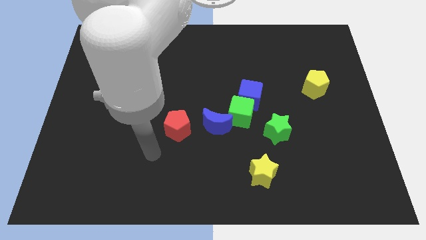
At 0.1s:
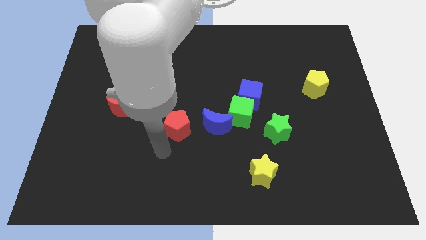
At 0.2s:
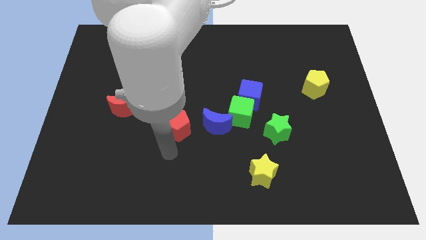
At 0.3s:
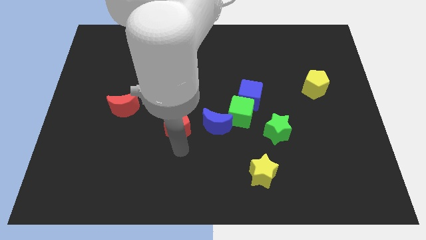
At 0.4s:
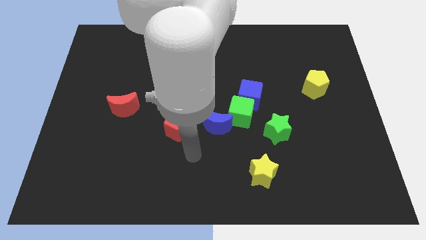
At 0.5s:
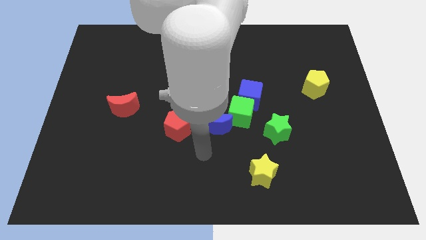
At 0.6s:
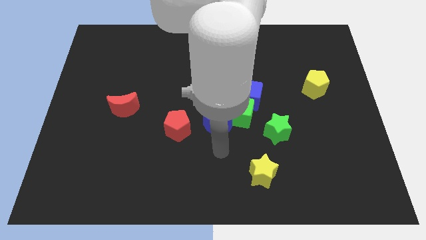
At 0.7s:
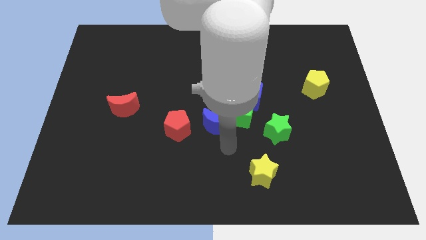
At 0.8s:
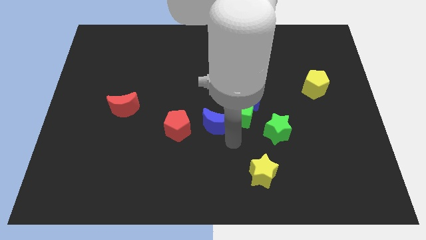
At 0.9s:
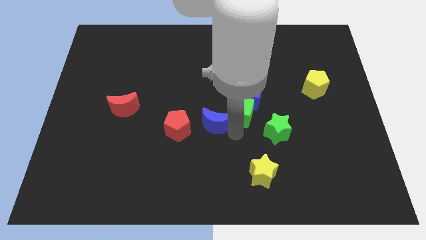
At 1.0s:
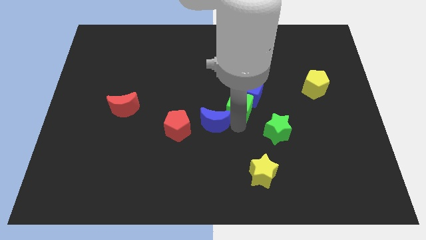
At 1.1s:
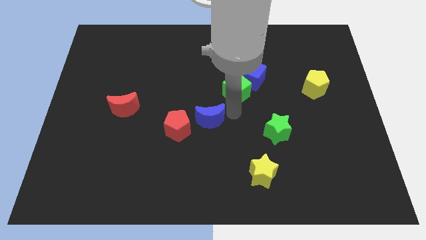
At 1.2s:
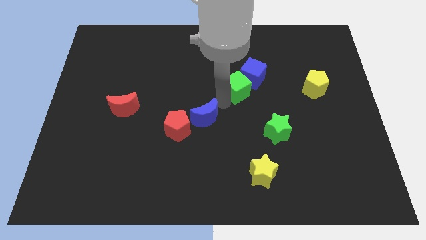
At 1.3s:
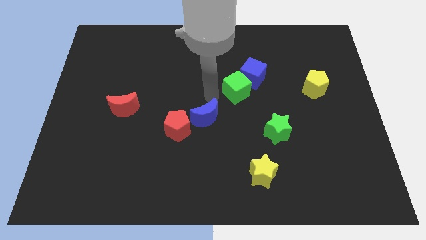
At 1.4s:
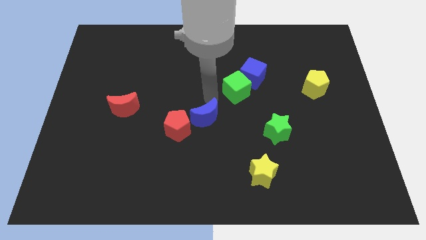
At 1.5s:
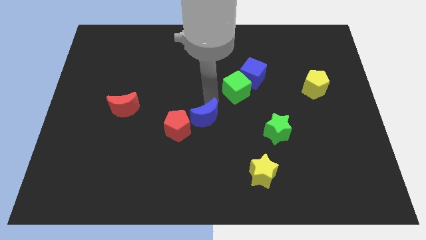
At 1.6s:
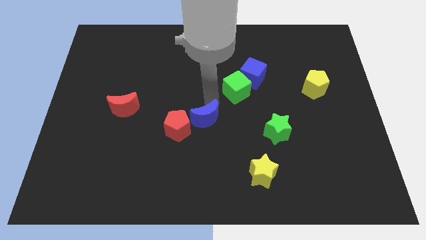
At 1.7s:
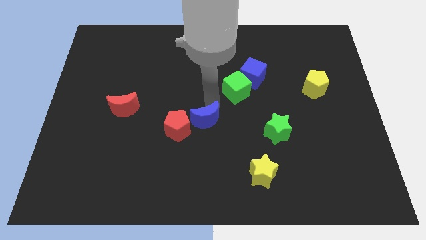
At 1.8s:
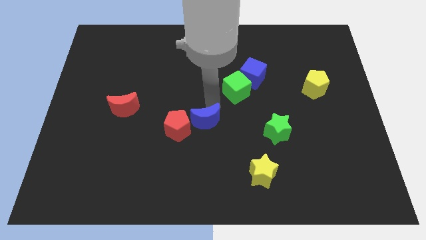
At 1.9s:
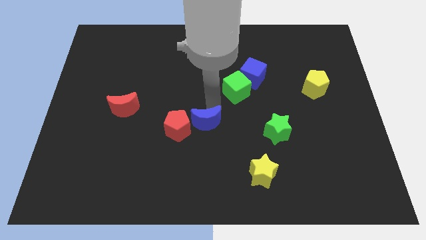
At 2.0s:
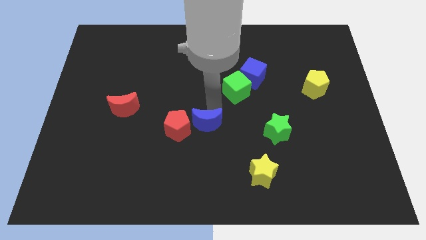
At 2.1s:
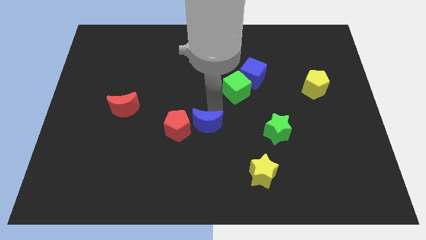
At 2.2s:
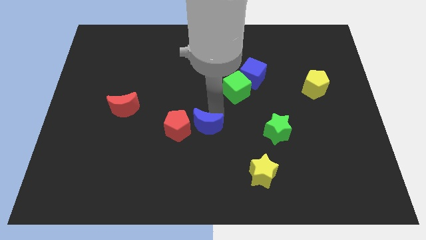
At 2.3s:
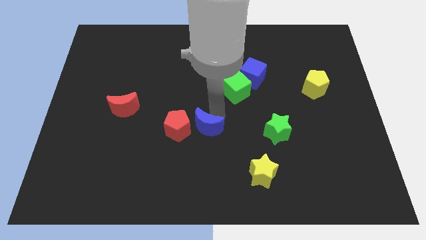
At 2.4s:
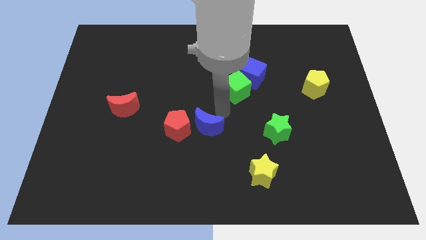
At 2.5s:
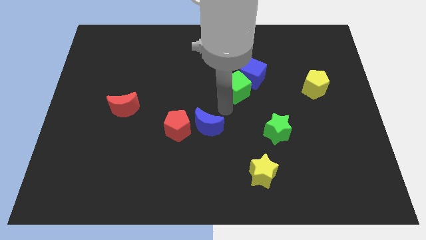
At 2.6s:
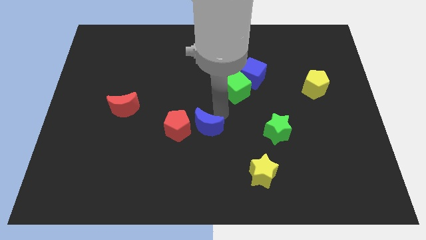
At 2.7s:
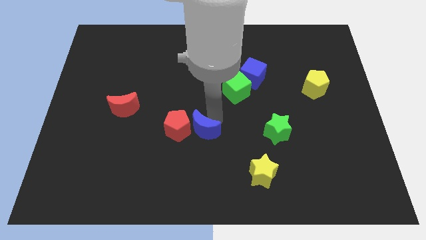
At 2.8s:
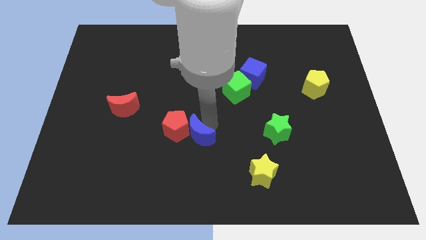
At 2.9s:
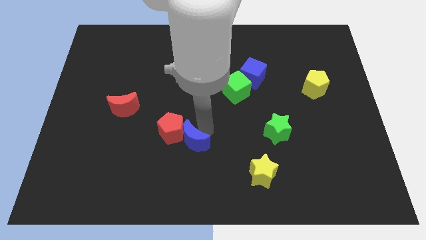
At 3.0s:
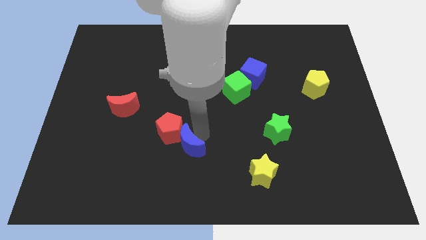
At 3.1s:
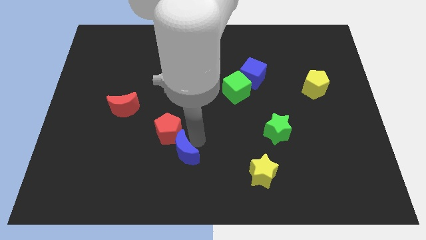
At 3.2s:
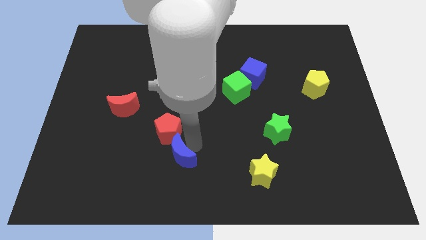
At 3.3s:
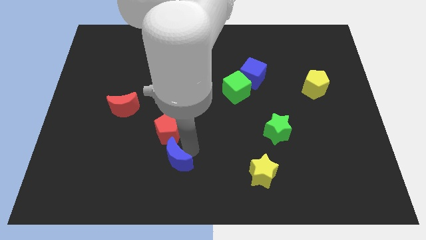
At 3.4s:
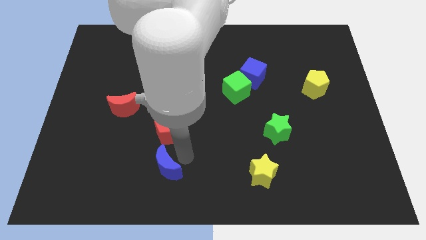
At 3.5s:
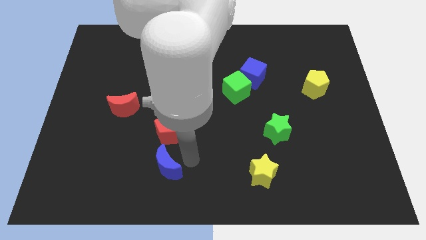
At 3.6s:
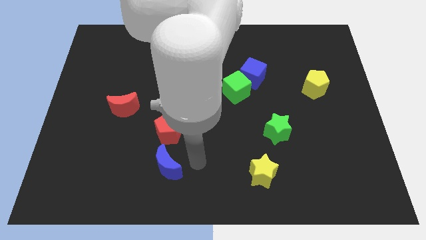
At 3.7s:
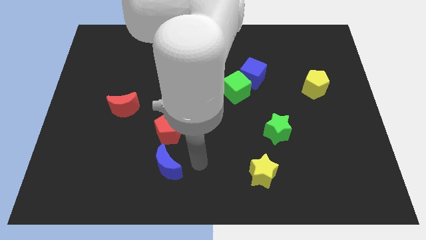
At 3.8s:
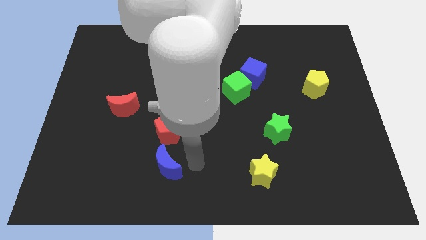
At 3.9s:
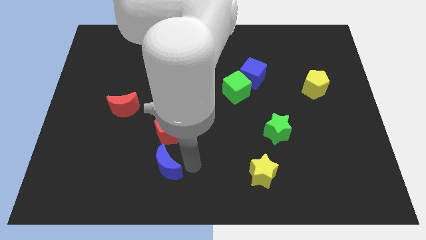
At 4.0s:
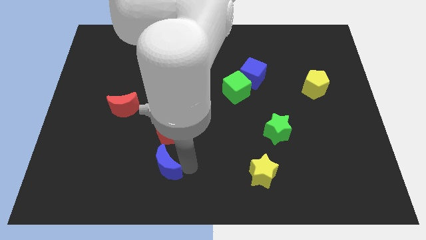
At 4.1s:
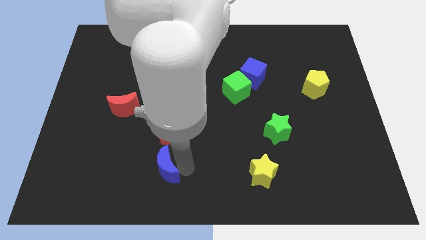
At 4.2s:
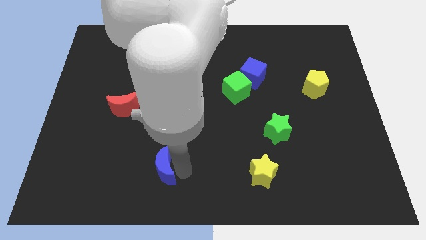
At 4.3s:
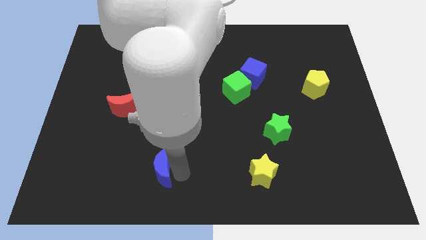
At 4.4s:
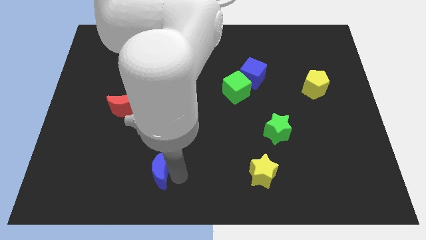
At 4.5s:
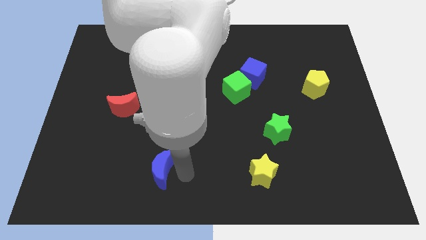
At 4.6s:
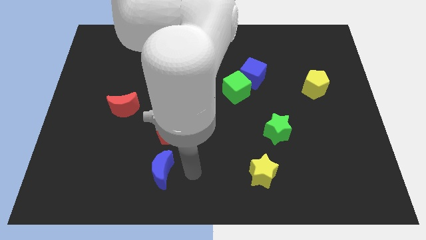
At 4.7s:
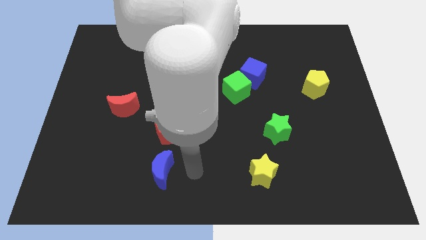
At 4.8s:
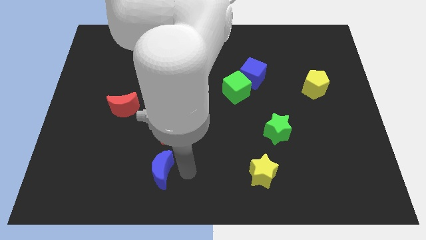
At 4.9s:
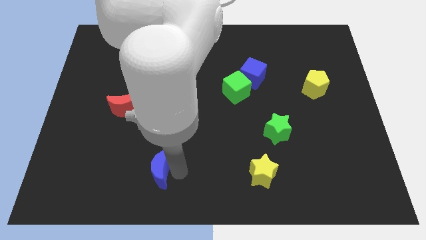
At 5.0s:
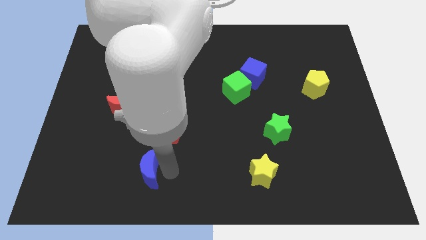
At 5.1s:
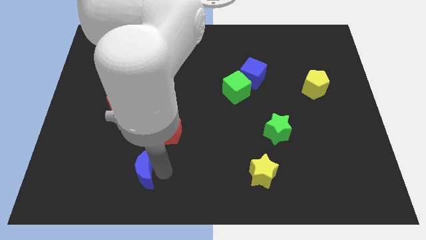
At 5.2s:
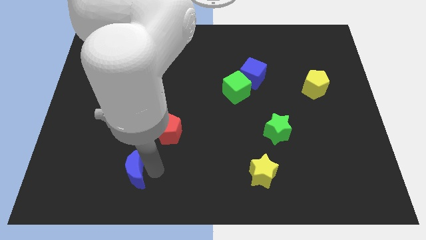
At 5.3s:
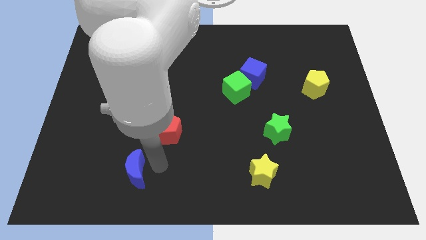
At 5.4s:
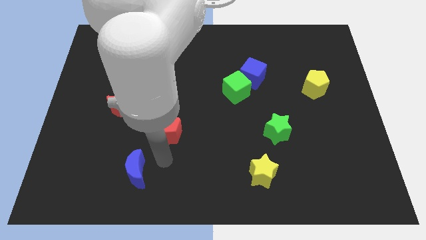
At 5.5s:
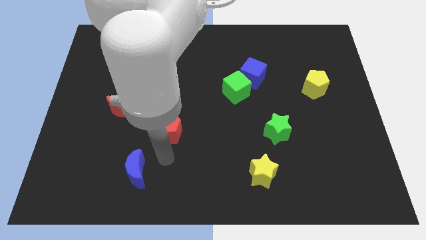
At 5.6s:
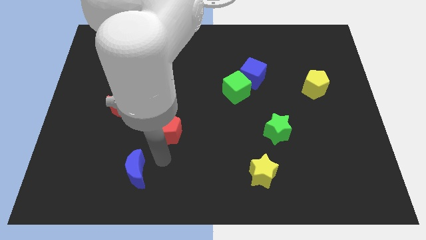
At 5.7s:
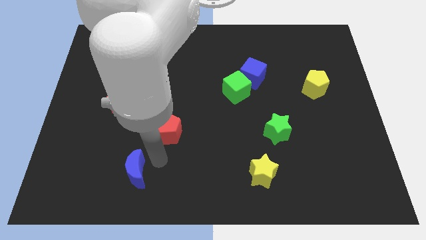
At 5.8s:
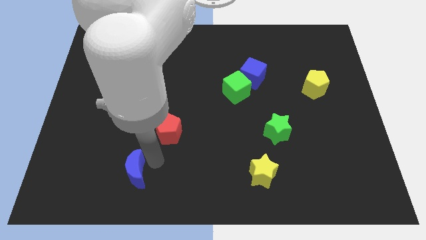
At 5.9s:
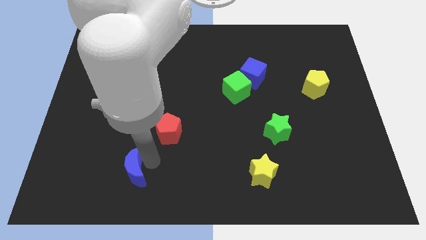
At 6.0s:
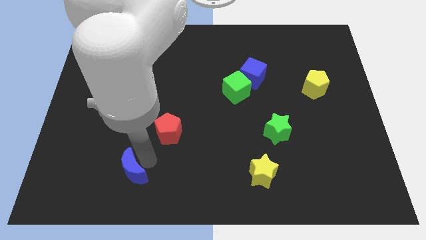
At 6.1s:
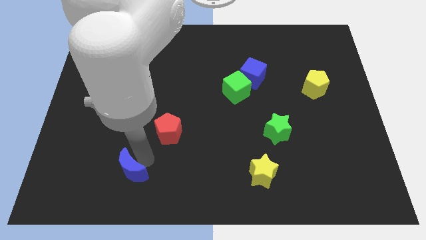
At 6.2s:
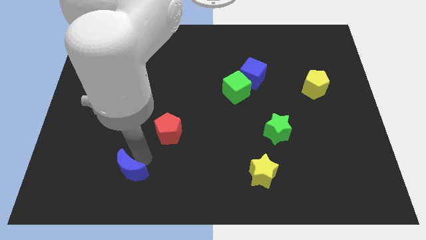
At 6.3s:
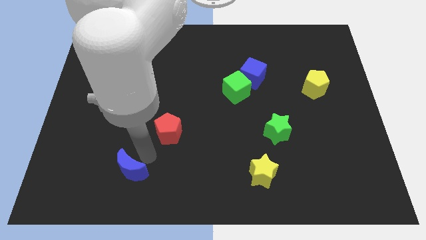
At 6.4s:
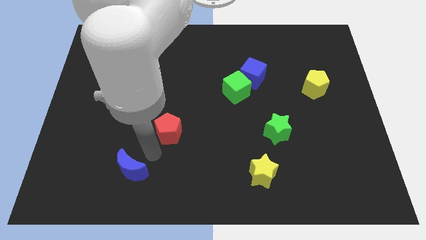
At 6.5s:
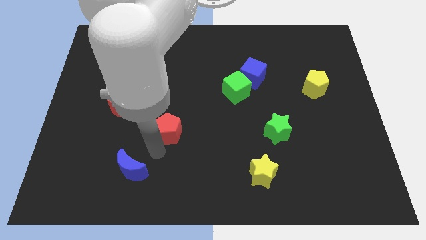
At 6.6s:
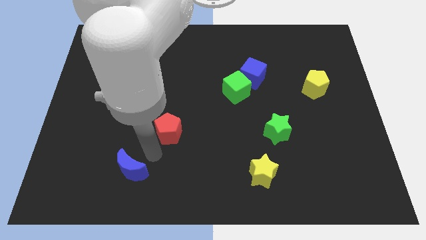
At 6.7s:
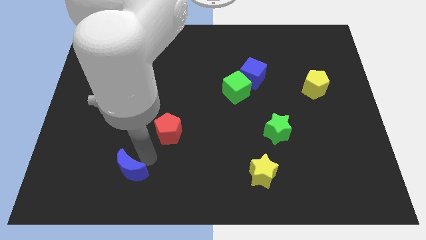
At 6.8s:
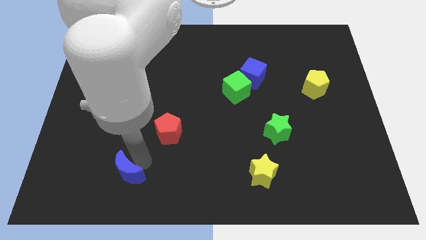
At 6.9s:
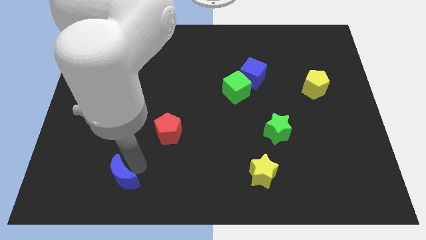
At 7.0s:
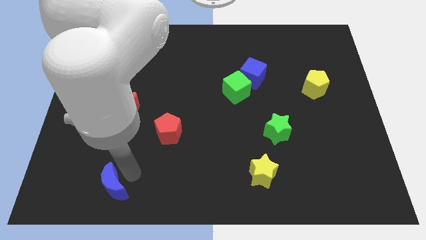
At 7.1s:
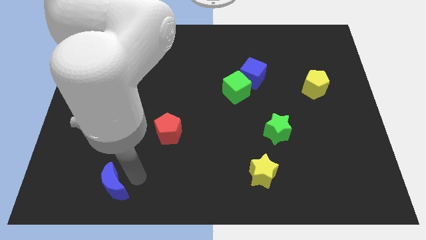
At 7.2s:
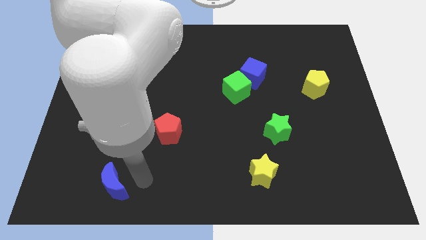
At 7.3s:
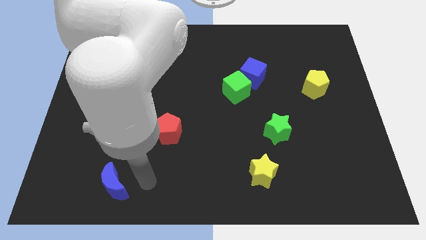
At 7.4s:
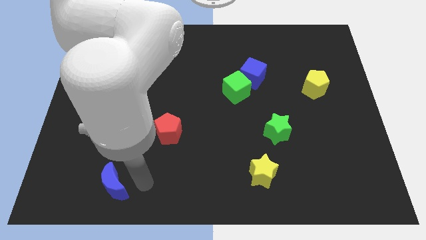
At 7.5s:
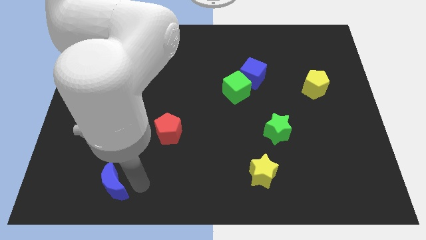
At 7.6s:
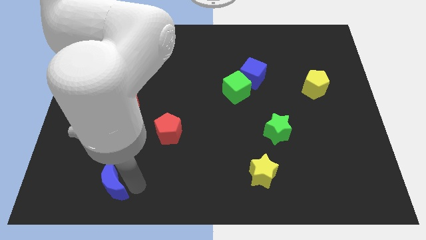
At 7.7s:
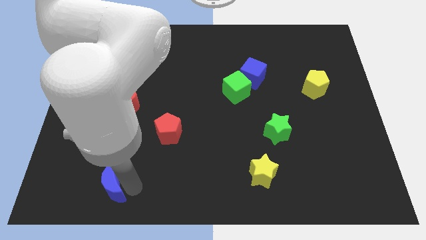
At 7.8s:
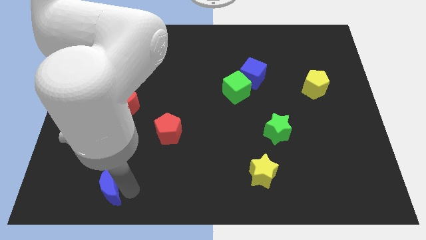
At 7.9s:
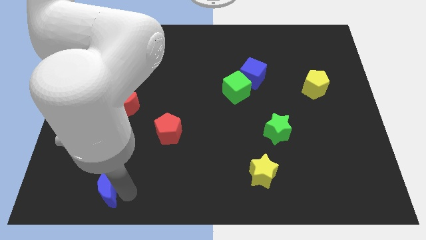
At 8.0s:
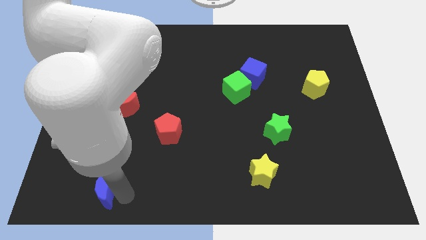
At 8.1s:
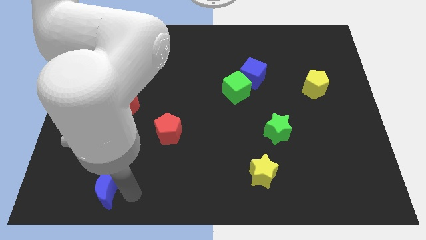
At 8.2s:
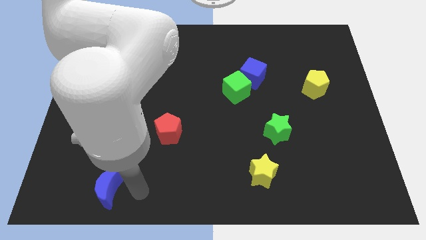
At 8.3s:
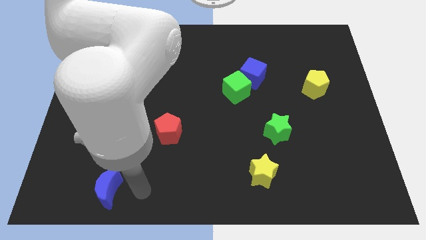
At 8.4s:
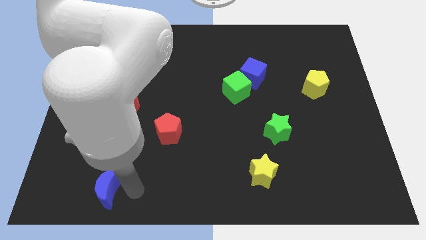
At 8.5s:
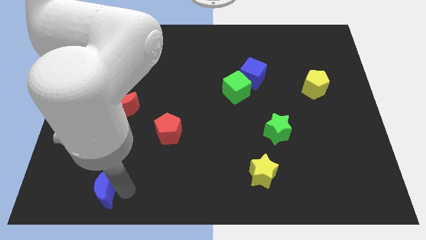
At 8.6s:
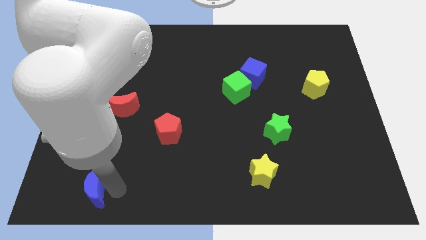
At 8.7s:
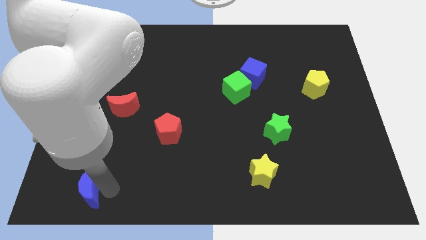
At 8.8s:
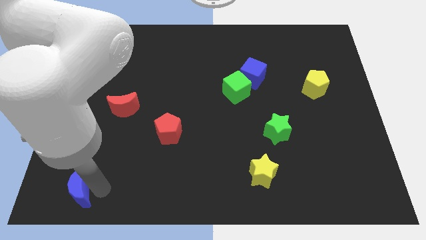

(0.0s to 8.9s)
put the blue moon to the bottom left
